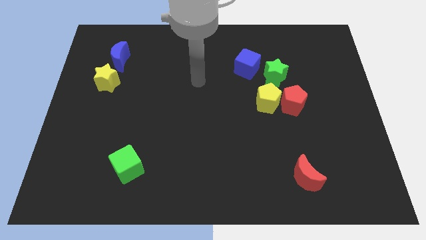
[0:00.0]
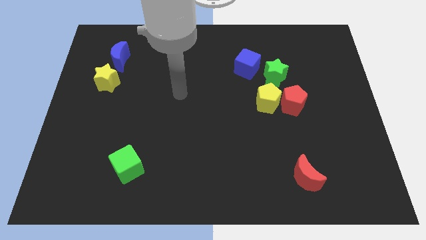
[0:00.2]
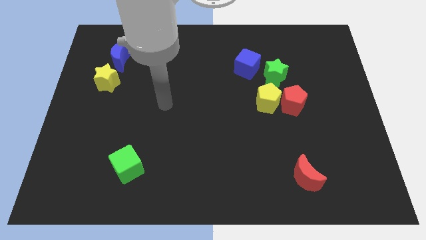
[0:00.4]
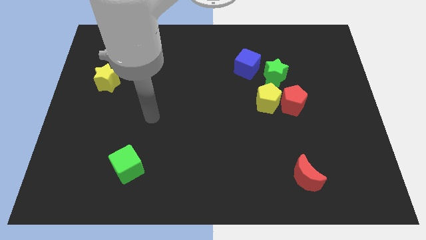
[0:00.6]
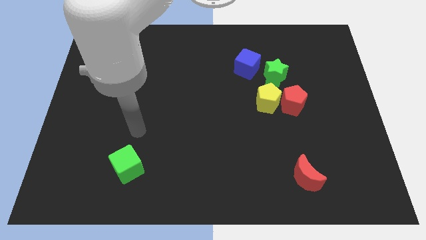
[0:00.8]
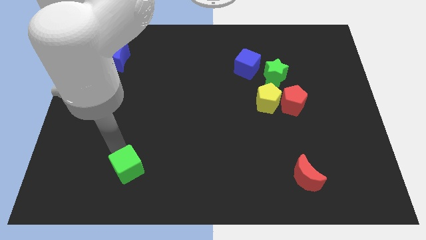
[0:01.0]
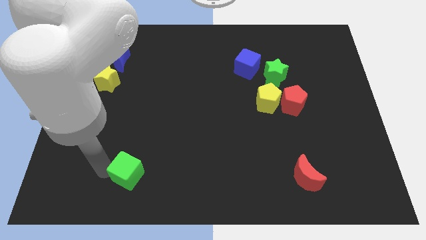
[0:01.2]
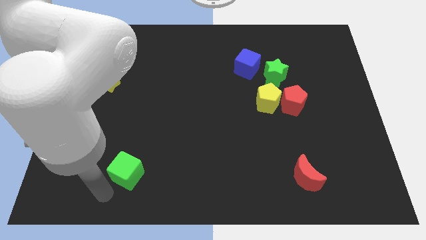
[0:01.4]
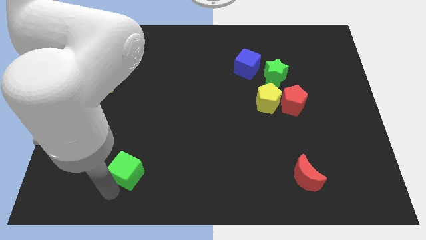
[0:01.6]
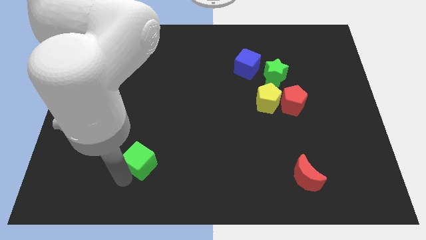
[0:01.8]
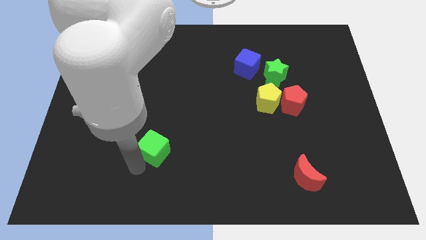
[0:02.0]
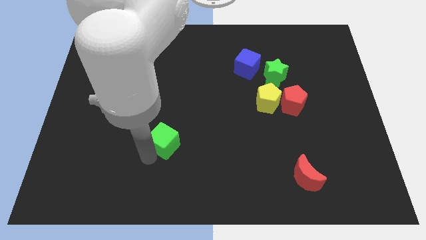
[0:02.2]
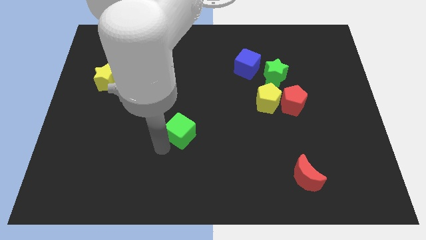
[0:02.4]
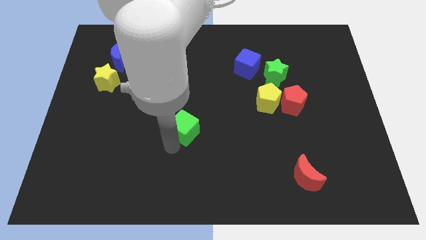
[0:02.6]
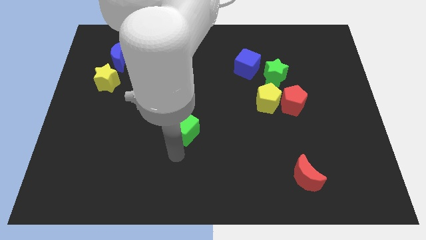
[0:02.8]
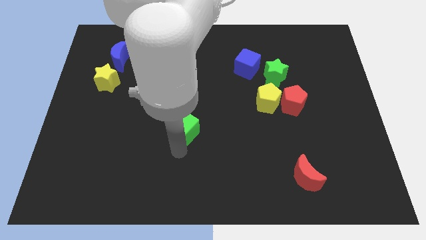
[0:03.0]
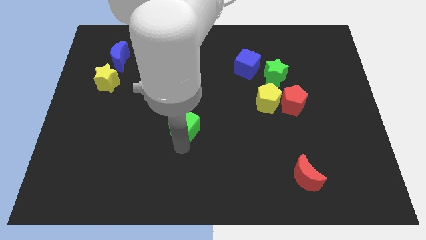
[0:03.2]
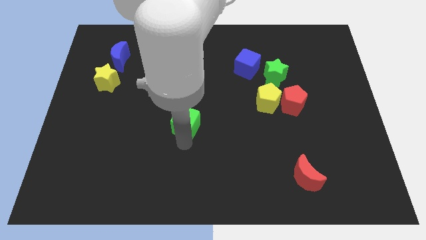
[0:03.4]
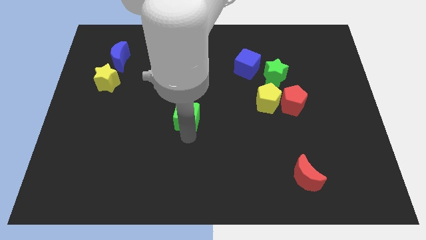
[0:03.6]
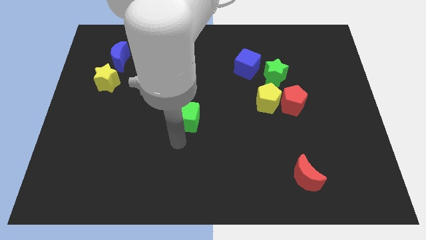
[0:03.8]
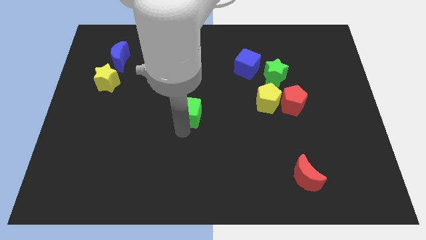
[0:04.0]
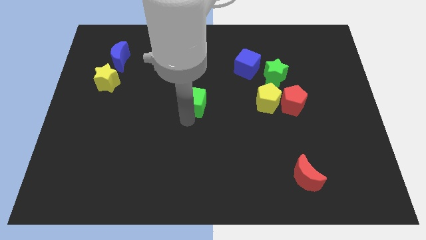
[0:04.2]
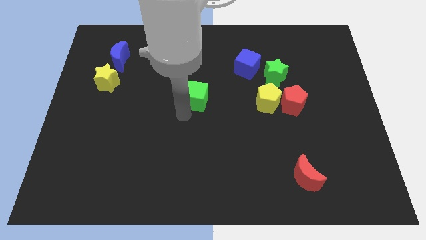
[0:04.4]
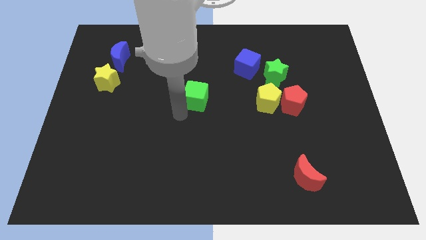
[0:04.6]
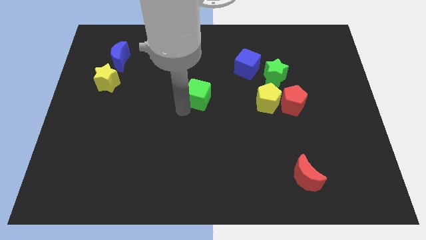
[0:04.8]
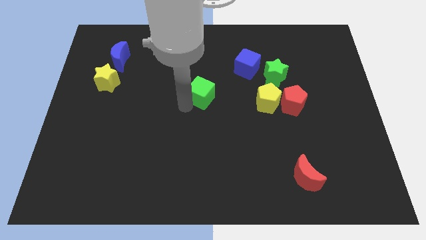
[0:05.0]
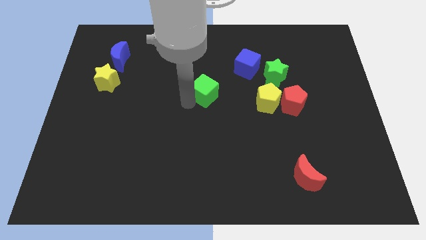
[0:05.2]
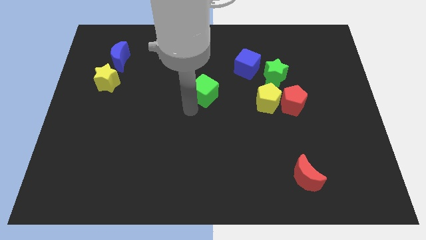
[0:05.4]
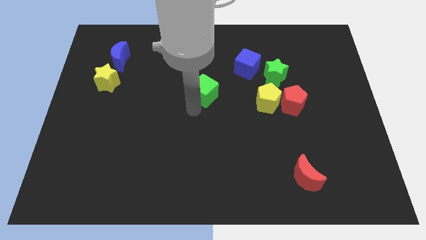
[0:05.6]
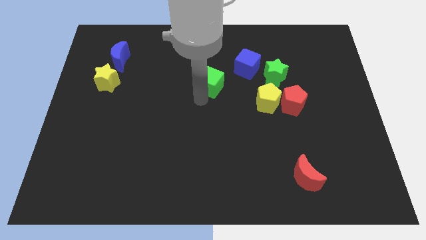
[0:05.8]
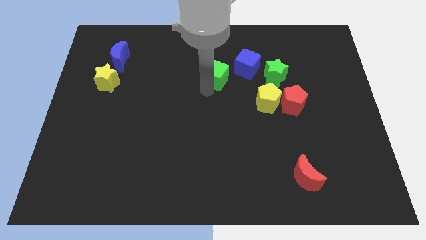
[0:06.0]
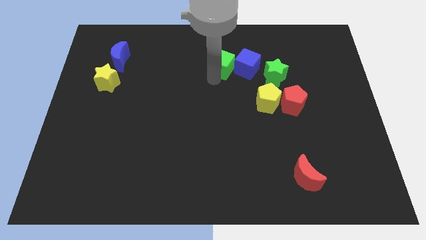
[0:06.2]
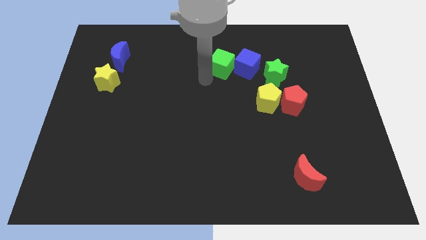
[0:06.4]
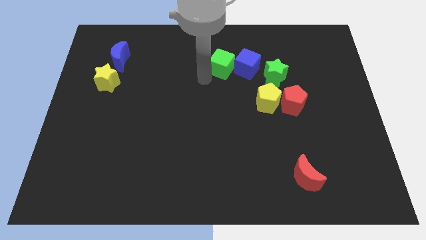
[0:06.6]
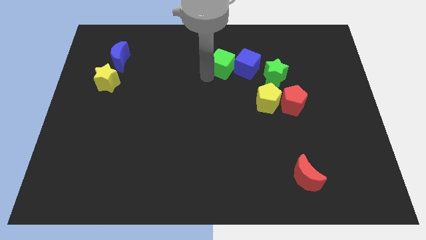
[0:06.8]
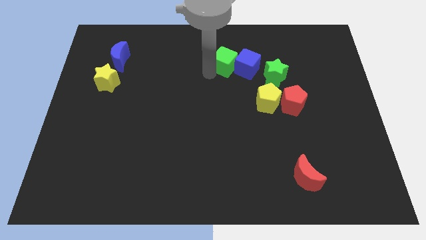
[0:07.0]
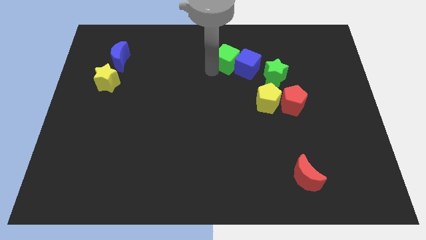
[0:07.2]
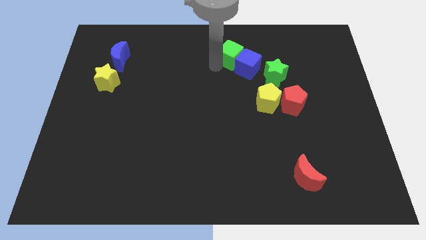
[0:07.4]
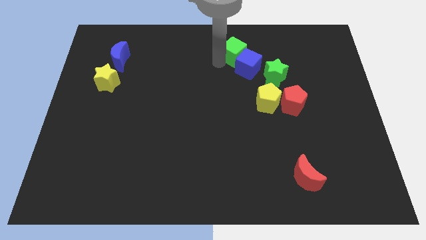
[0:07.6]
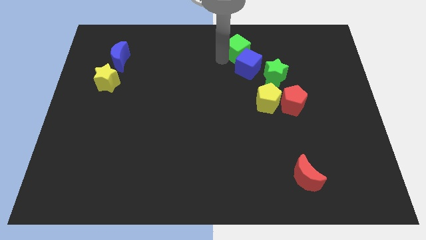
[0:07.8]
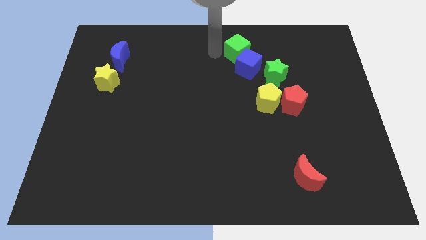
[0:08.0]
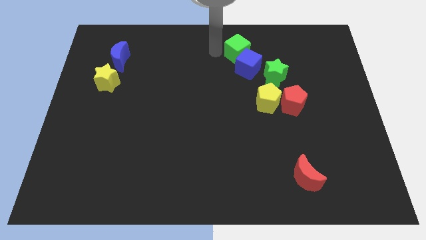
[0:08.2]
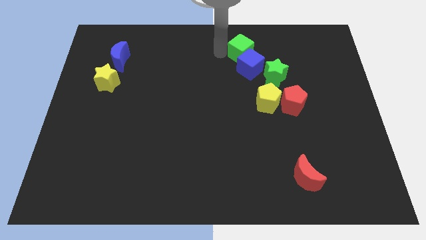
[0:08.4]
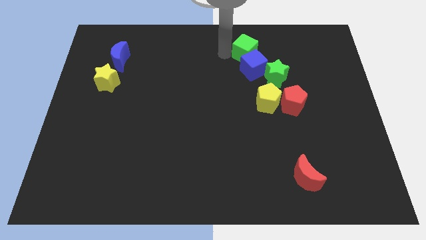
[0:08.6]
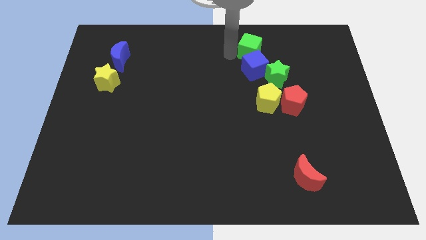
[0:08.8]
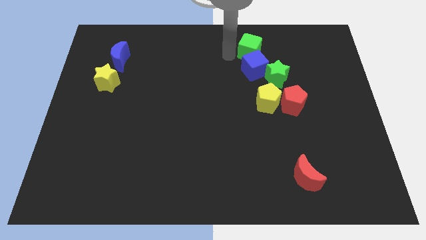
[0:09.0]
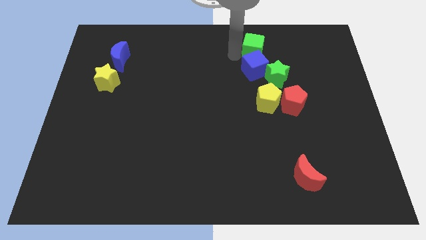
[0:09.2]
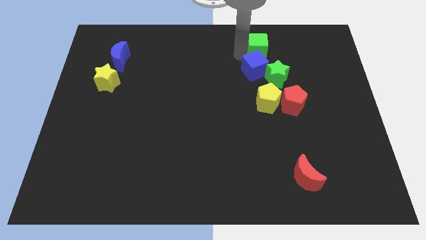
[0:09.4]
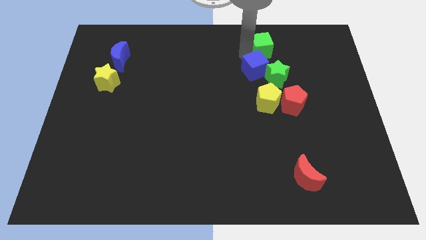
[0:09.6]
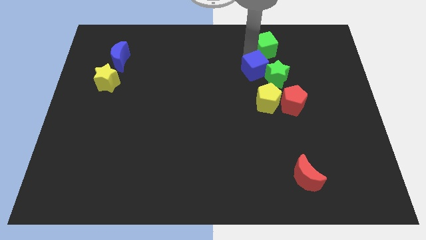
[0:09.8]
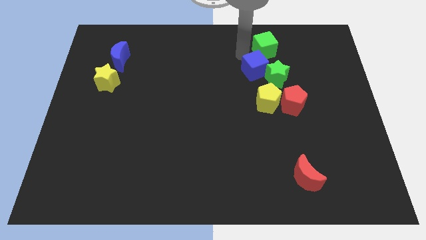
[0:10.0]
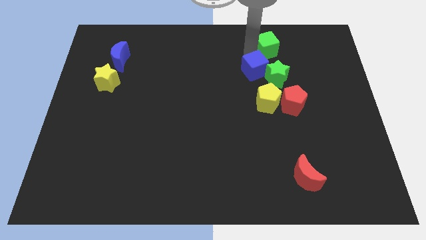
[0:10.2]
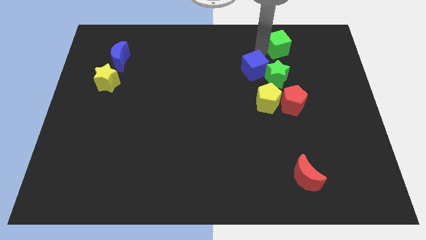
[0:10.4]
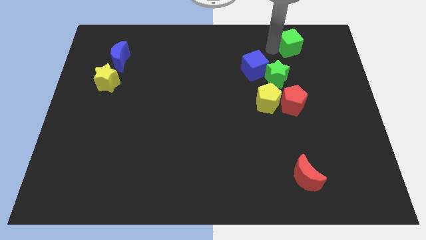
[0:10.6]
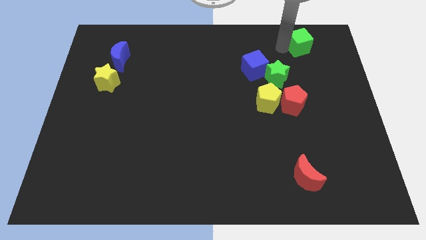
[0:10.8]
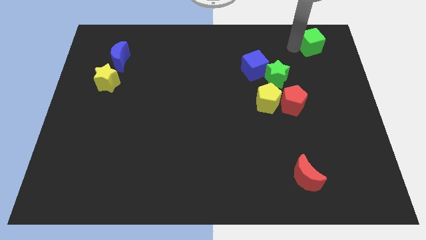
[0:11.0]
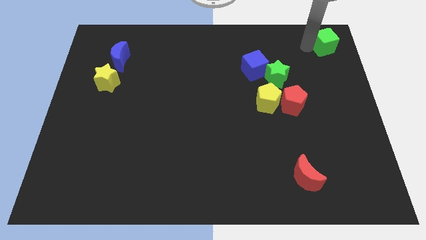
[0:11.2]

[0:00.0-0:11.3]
slide the green cube to the top right

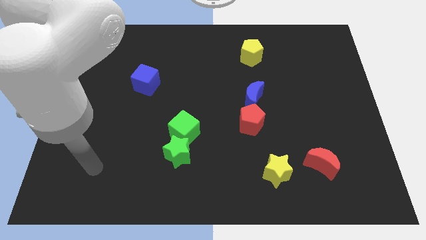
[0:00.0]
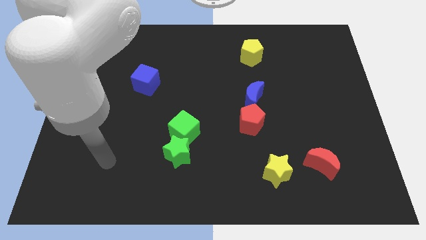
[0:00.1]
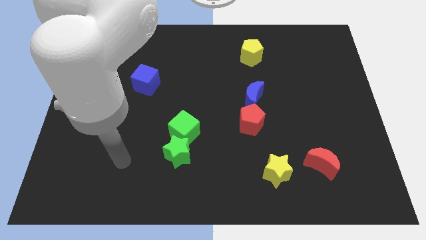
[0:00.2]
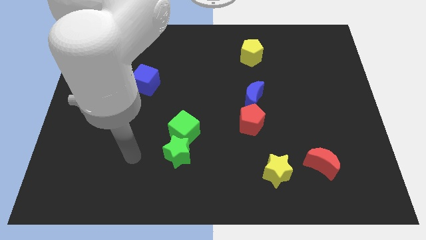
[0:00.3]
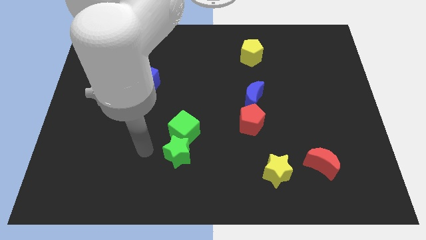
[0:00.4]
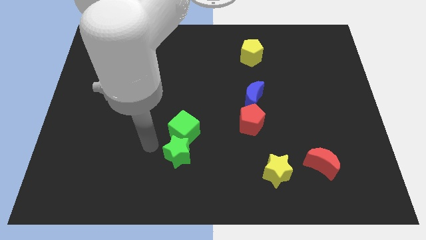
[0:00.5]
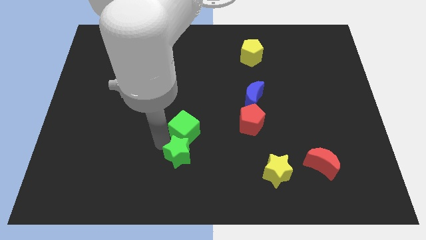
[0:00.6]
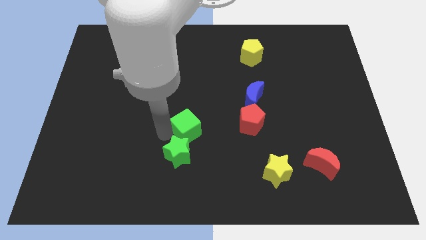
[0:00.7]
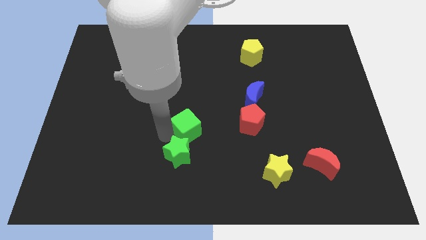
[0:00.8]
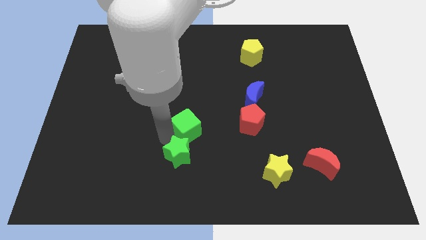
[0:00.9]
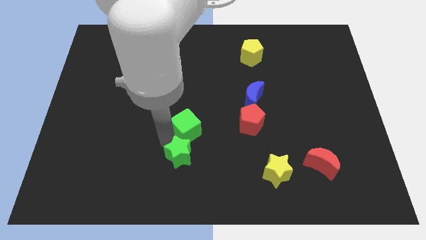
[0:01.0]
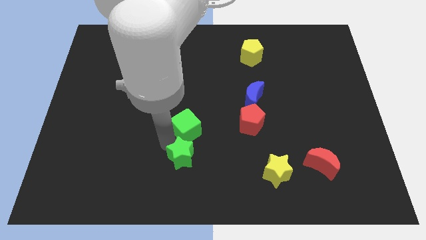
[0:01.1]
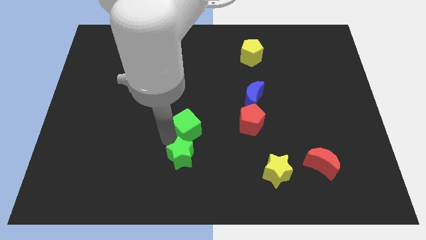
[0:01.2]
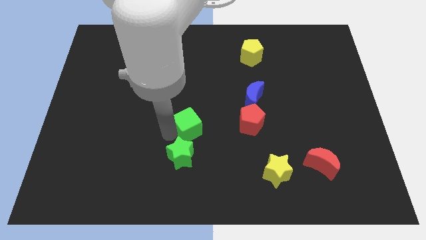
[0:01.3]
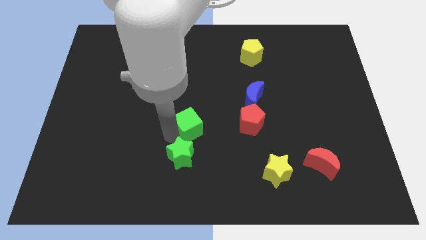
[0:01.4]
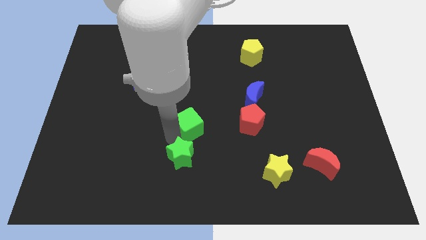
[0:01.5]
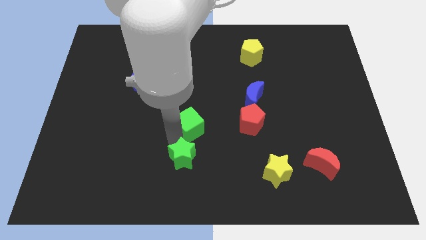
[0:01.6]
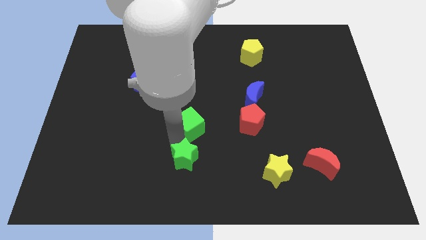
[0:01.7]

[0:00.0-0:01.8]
put the green star to the bottom side
